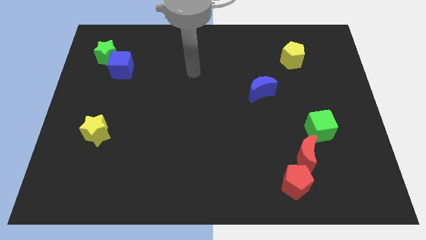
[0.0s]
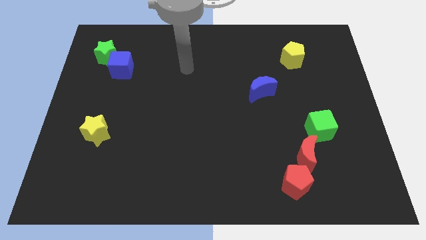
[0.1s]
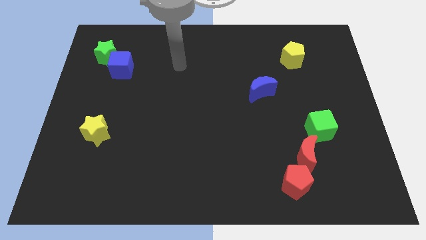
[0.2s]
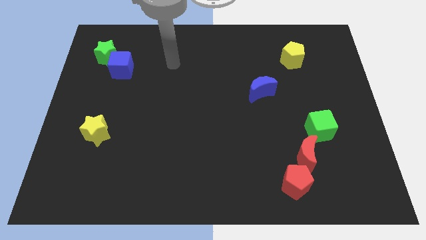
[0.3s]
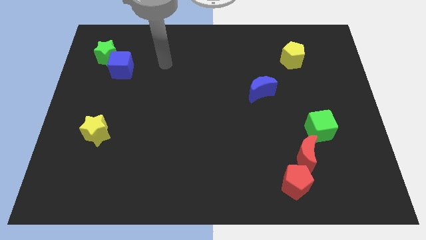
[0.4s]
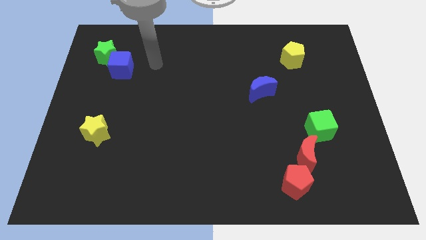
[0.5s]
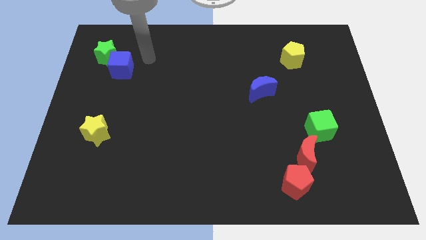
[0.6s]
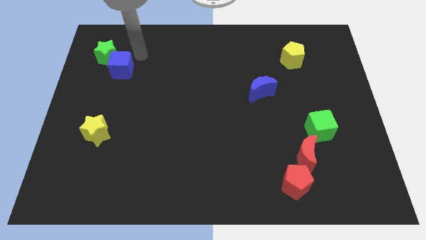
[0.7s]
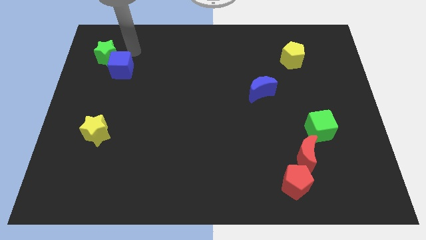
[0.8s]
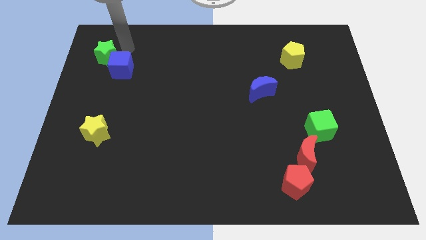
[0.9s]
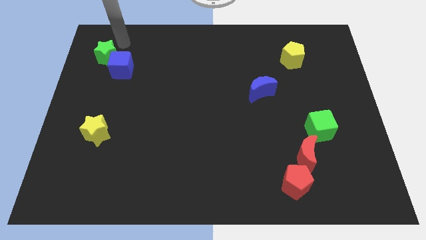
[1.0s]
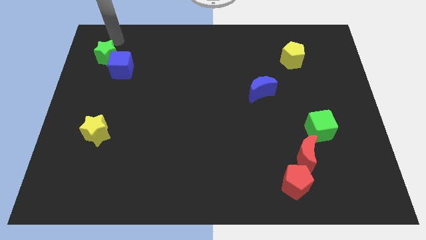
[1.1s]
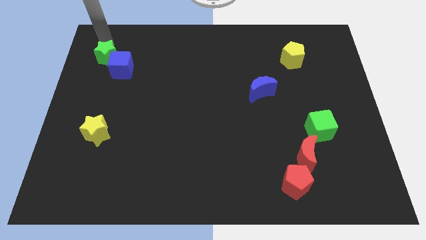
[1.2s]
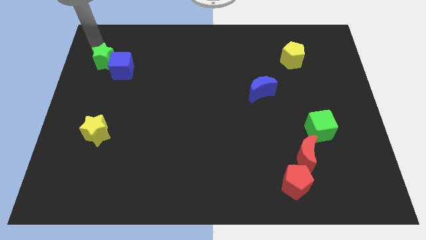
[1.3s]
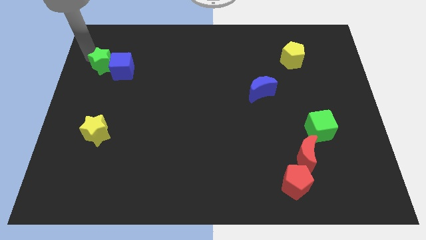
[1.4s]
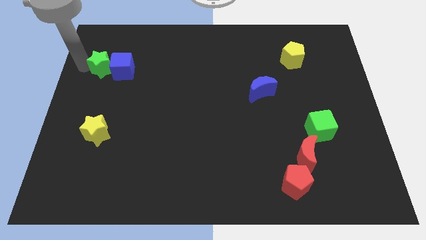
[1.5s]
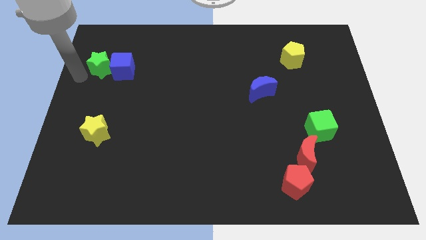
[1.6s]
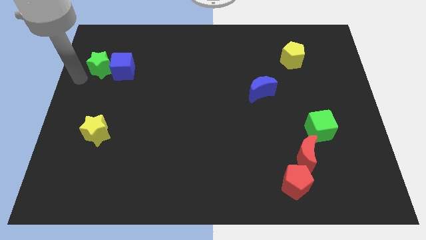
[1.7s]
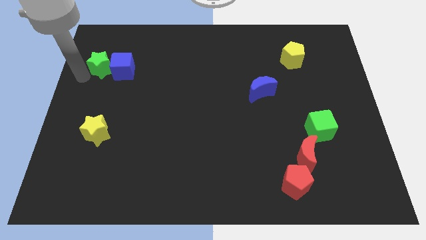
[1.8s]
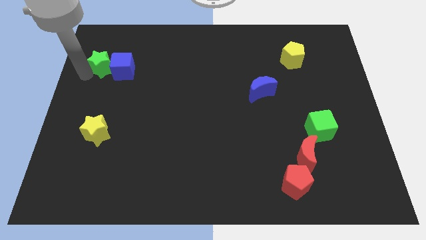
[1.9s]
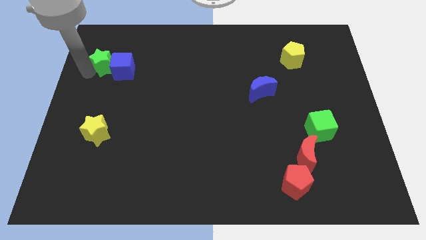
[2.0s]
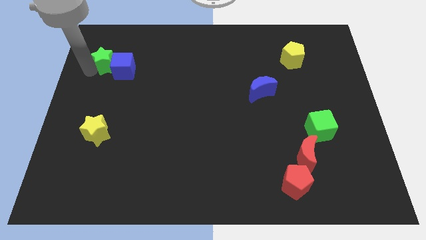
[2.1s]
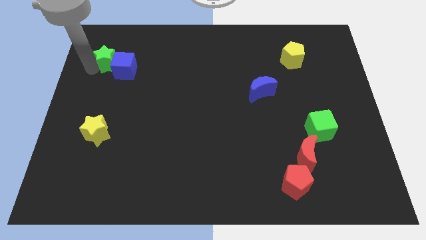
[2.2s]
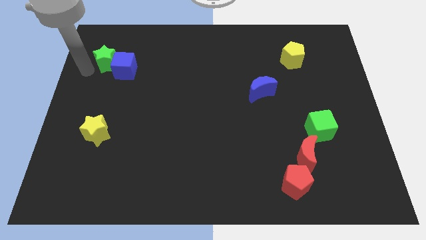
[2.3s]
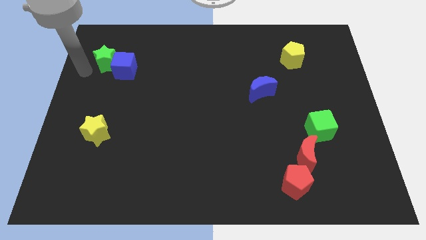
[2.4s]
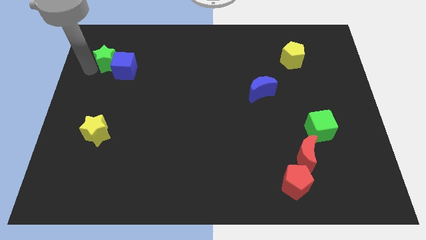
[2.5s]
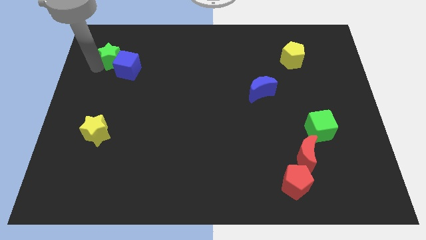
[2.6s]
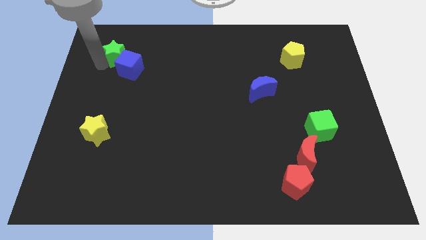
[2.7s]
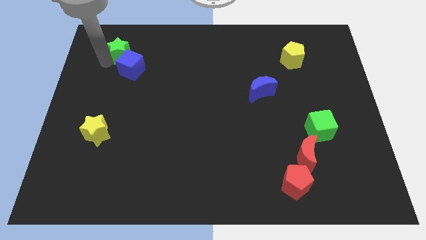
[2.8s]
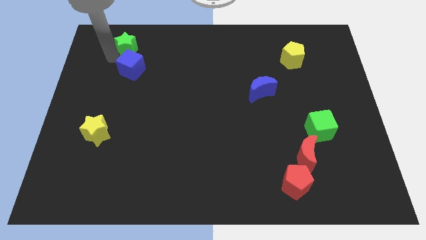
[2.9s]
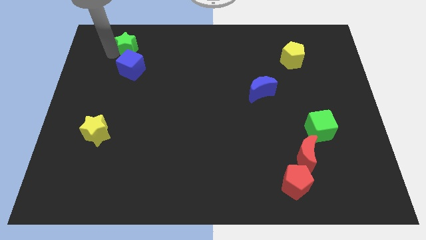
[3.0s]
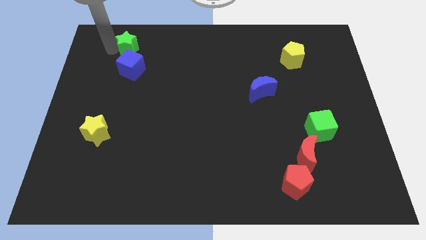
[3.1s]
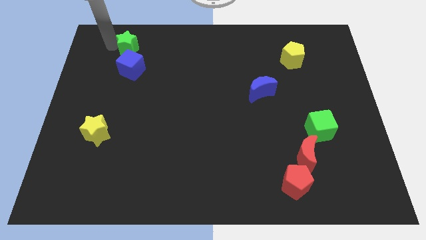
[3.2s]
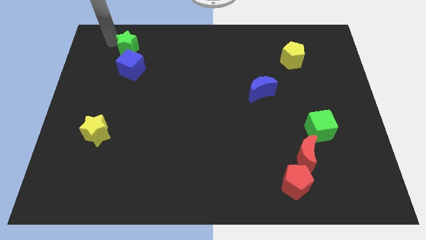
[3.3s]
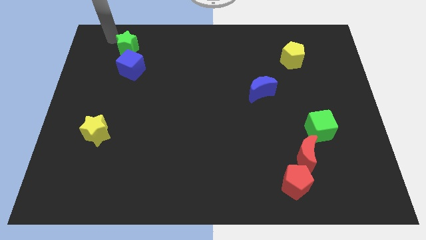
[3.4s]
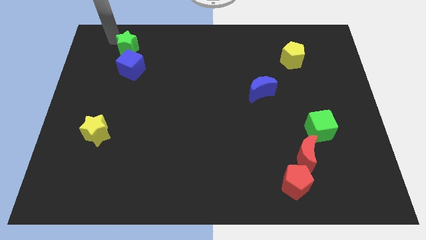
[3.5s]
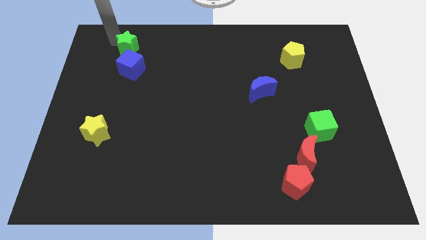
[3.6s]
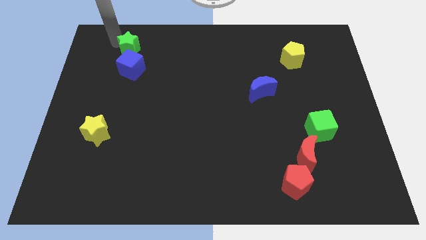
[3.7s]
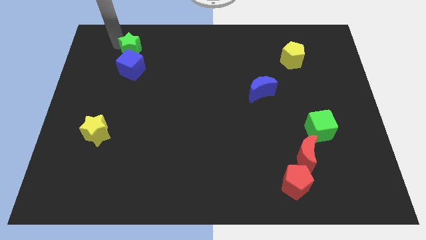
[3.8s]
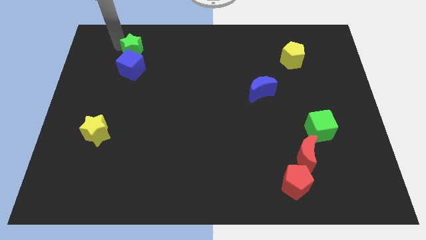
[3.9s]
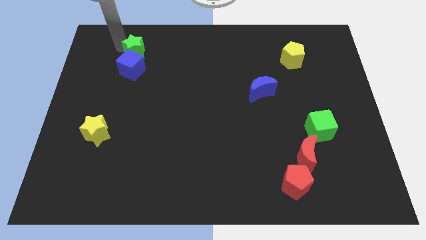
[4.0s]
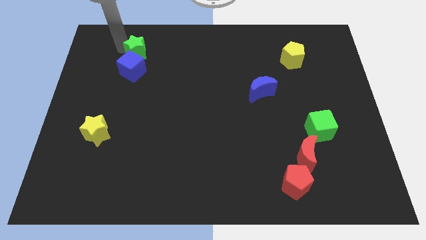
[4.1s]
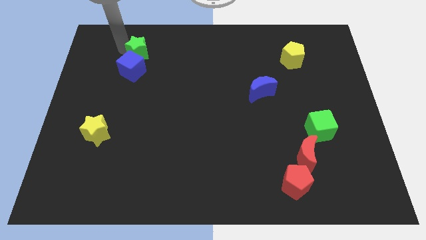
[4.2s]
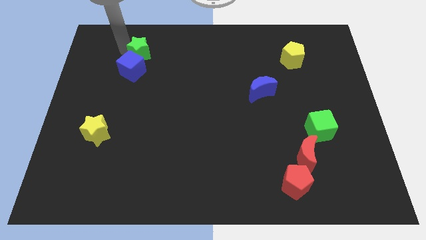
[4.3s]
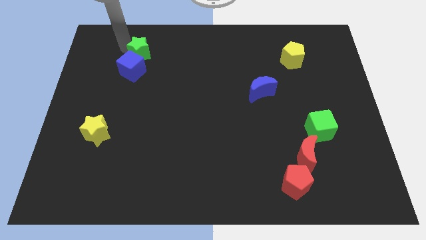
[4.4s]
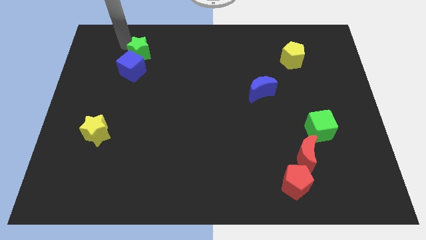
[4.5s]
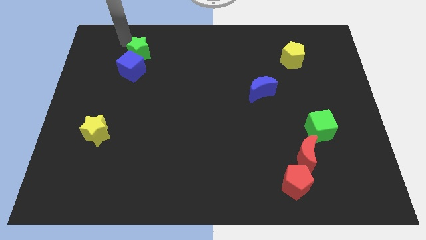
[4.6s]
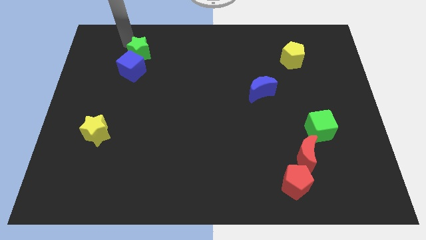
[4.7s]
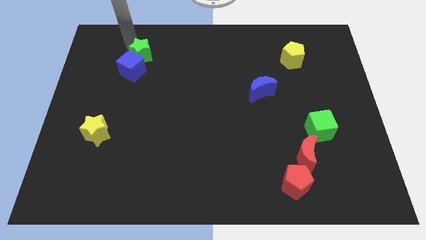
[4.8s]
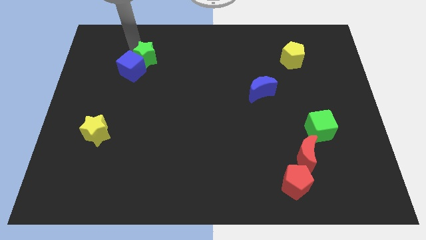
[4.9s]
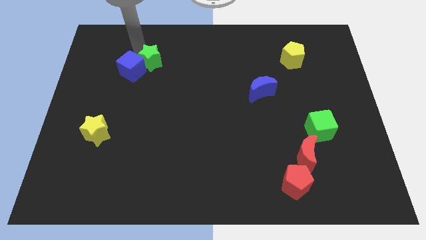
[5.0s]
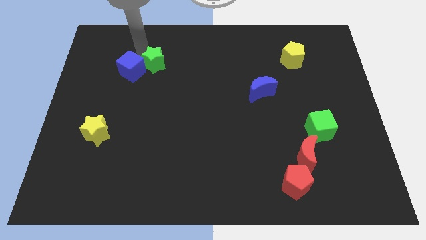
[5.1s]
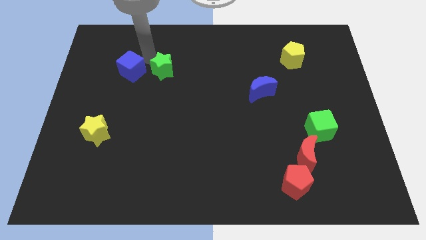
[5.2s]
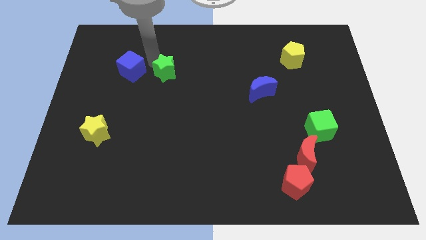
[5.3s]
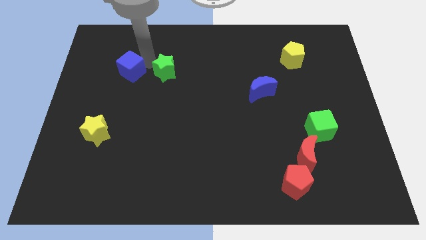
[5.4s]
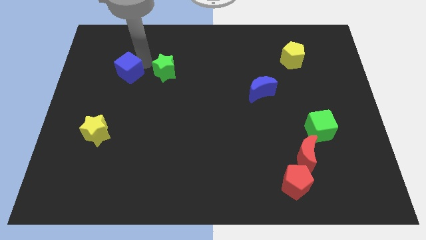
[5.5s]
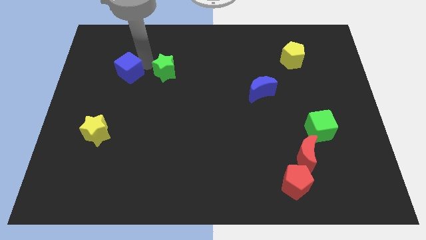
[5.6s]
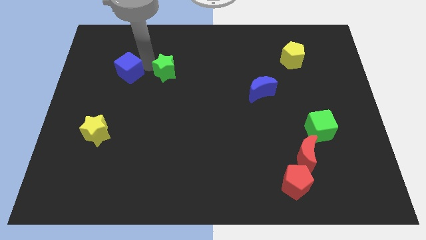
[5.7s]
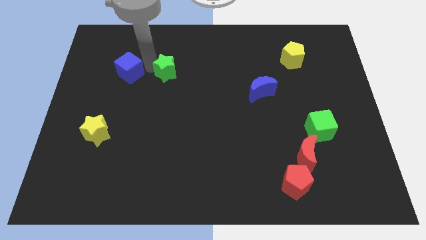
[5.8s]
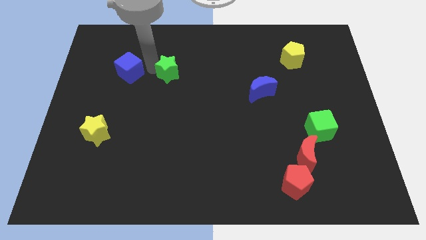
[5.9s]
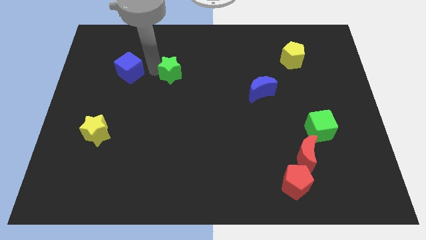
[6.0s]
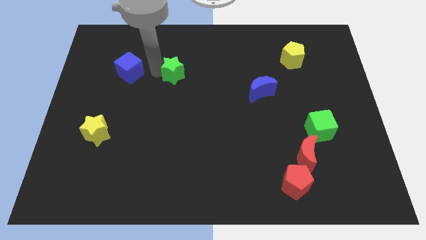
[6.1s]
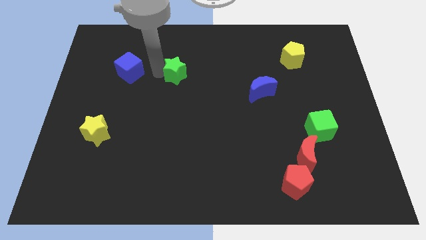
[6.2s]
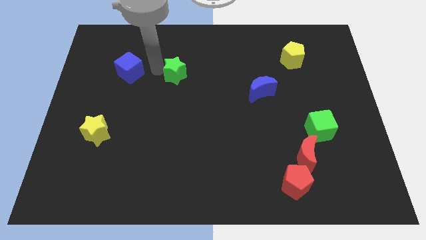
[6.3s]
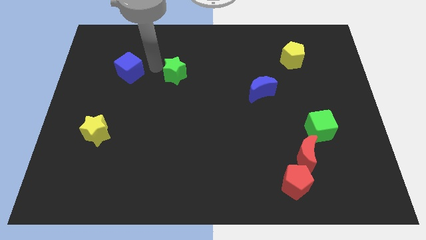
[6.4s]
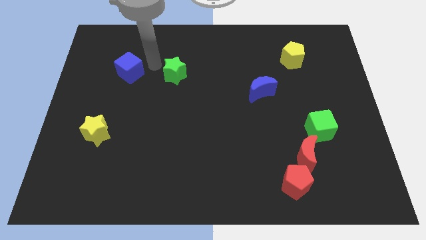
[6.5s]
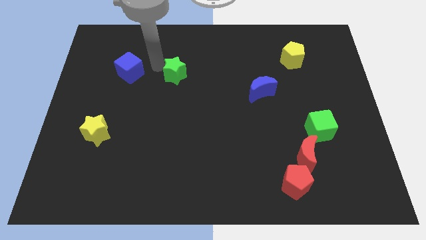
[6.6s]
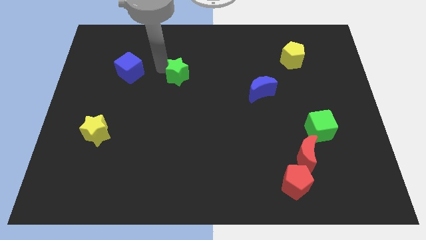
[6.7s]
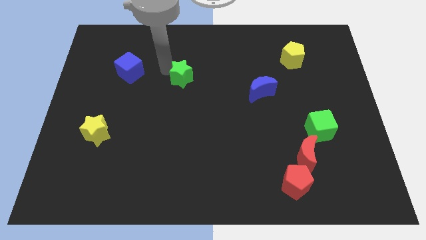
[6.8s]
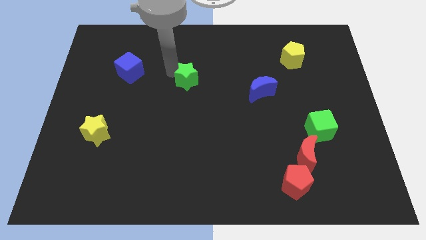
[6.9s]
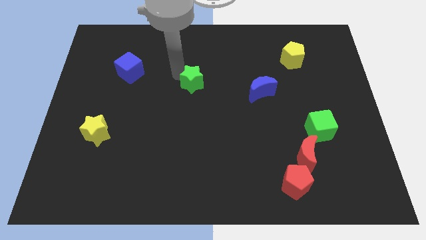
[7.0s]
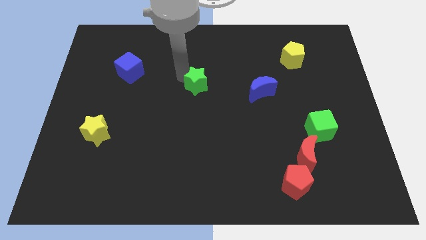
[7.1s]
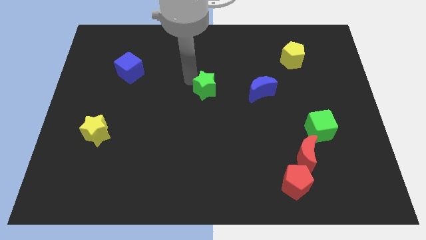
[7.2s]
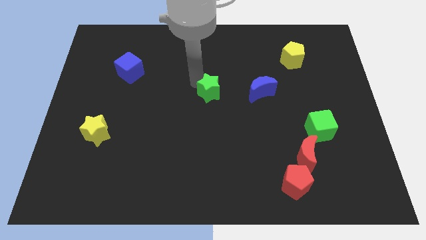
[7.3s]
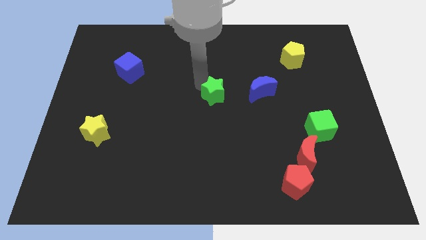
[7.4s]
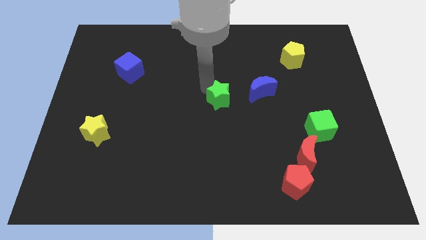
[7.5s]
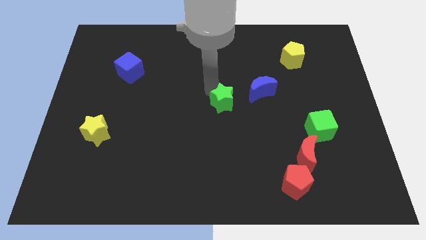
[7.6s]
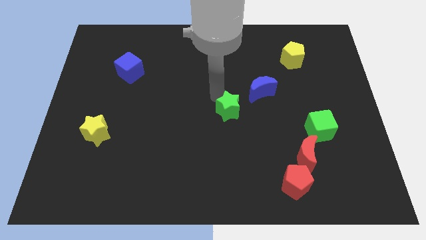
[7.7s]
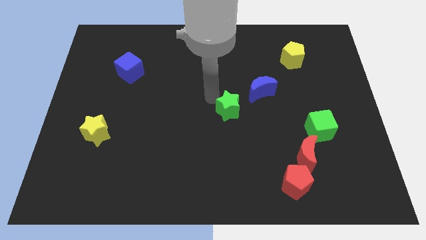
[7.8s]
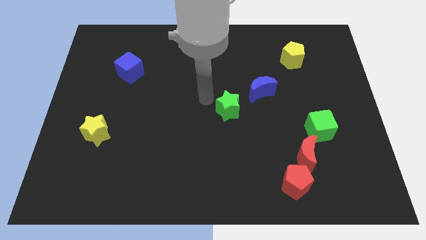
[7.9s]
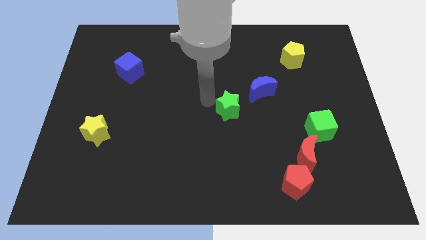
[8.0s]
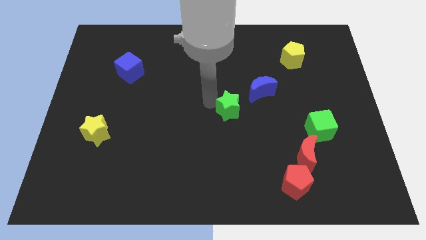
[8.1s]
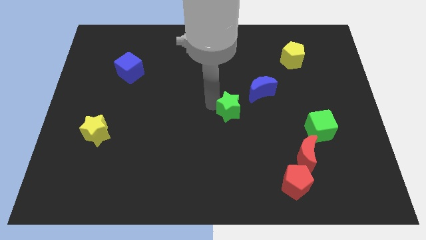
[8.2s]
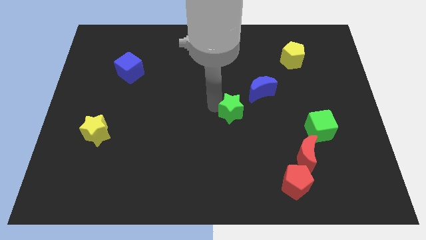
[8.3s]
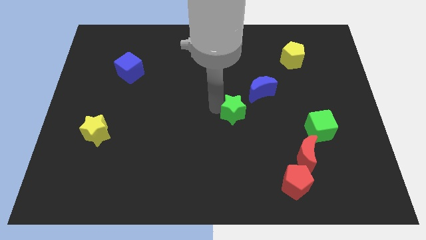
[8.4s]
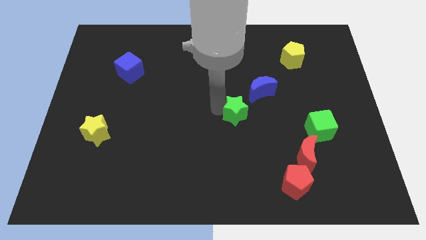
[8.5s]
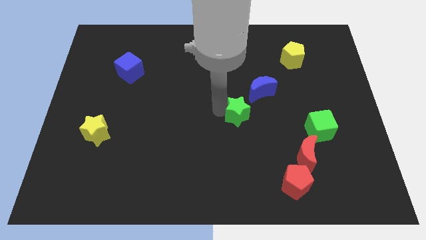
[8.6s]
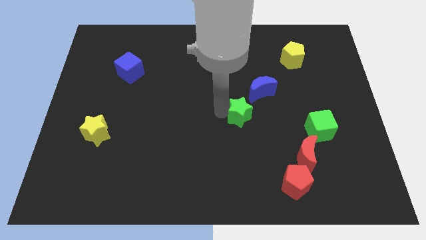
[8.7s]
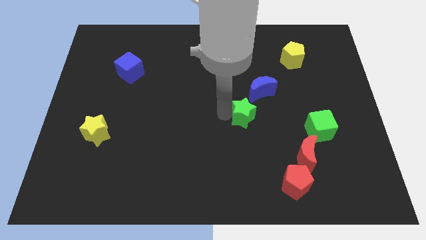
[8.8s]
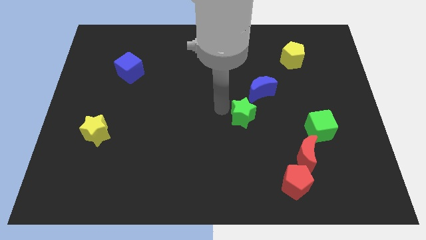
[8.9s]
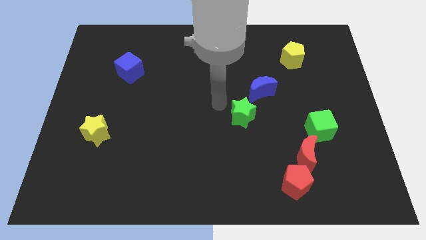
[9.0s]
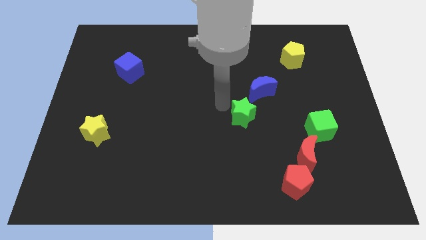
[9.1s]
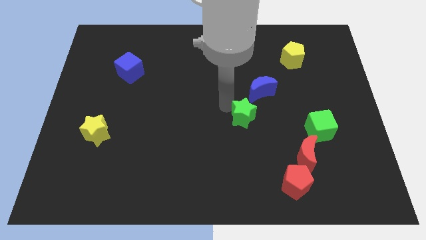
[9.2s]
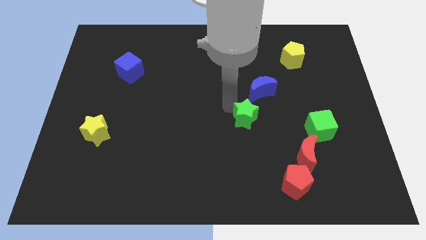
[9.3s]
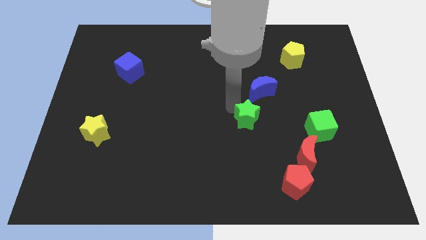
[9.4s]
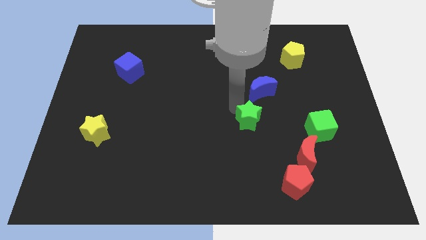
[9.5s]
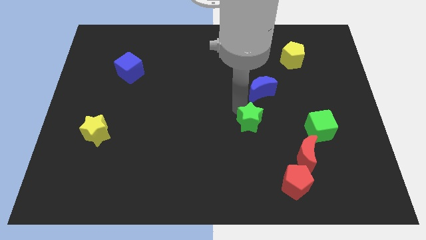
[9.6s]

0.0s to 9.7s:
move the green star just left of the green cube
